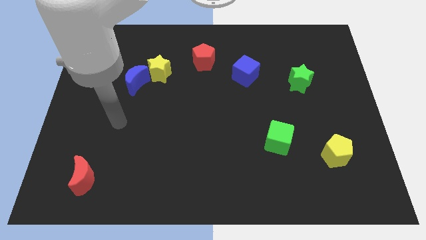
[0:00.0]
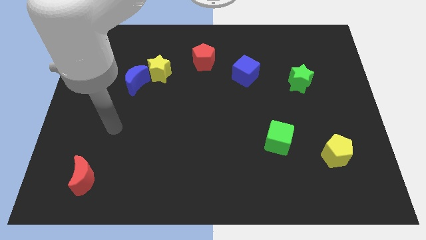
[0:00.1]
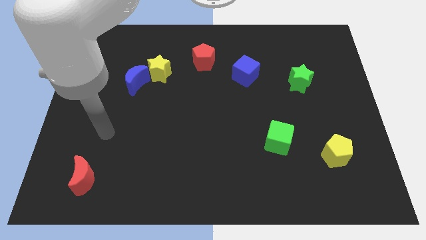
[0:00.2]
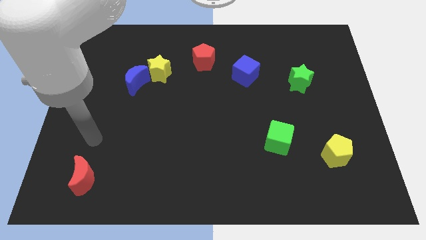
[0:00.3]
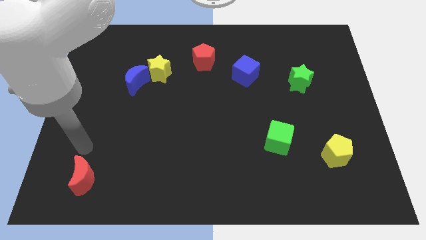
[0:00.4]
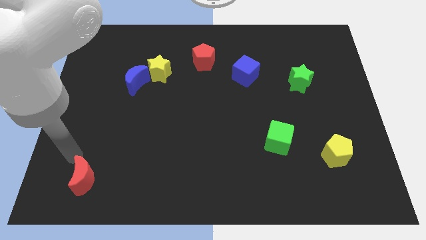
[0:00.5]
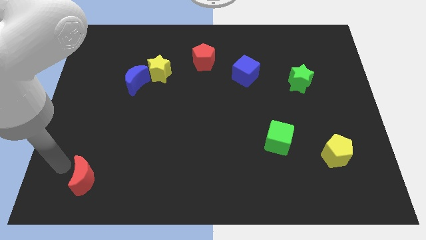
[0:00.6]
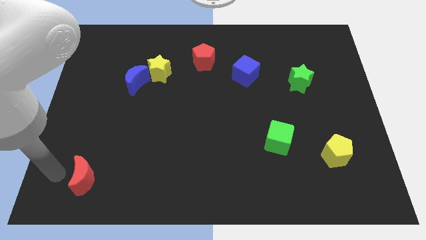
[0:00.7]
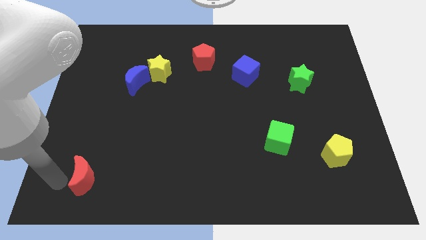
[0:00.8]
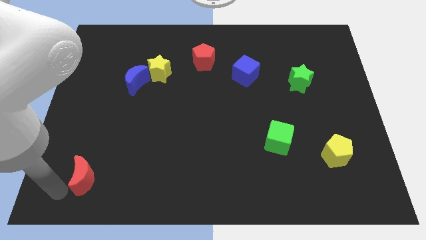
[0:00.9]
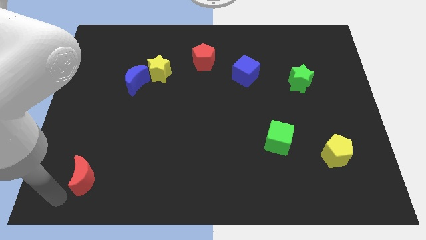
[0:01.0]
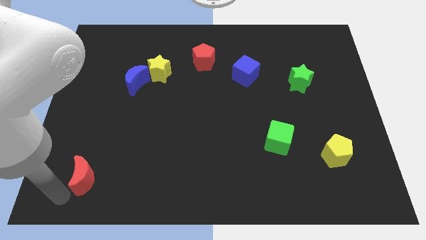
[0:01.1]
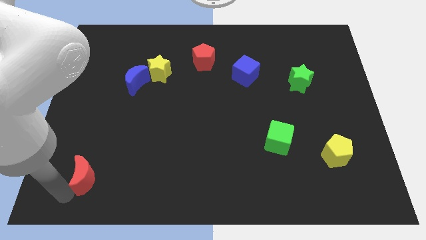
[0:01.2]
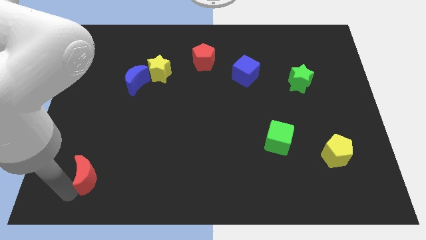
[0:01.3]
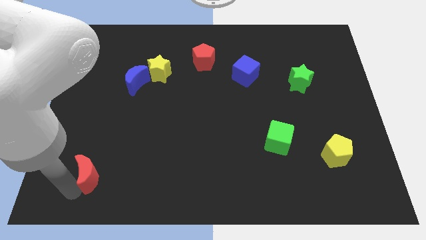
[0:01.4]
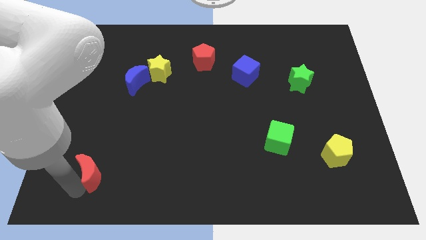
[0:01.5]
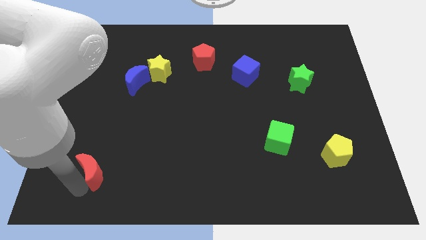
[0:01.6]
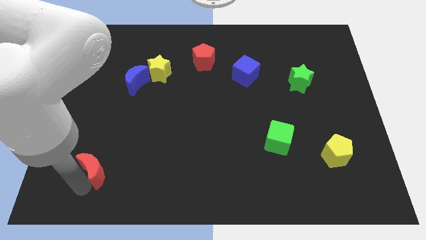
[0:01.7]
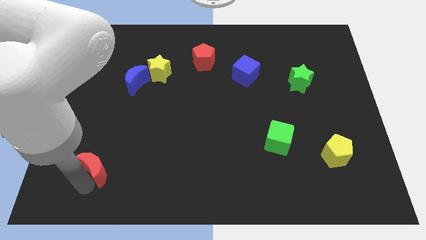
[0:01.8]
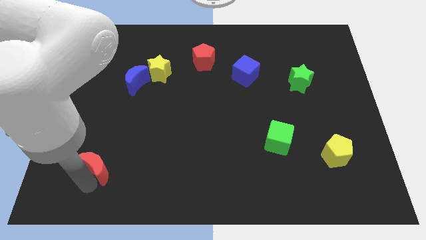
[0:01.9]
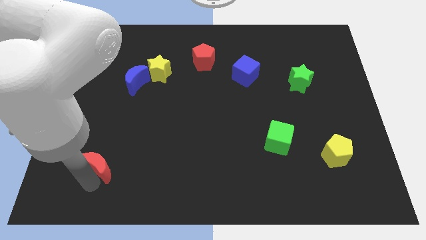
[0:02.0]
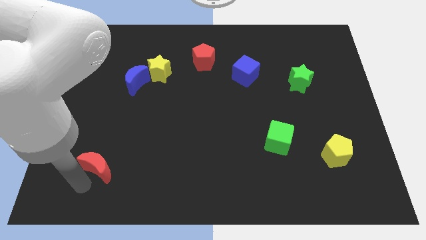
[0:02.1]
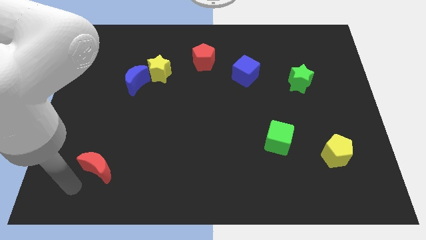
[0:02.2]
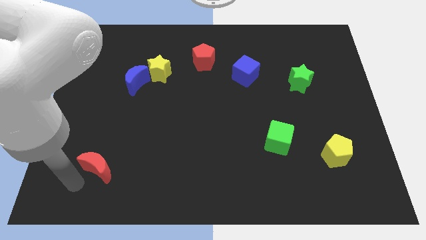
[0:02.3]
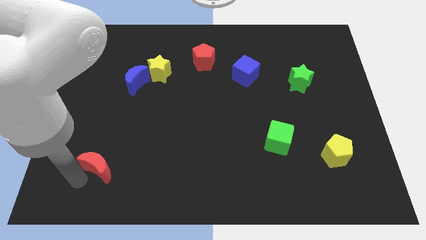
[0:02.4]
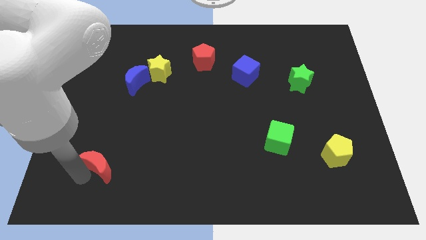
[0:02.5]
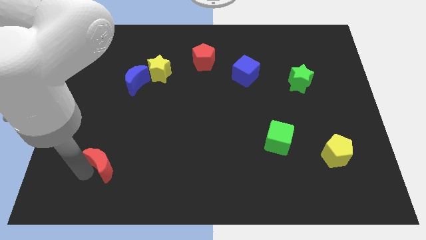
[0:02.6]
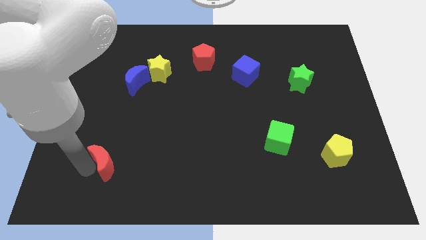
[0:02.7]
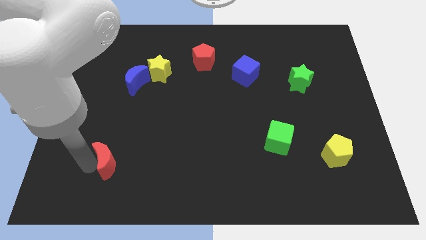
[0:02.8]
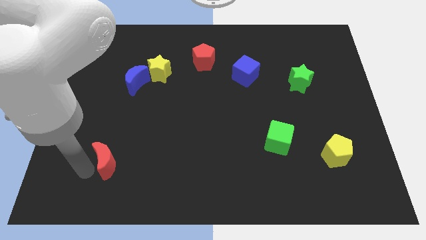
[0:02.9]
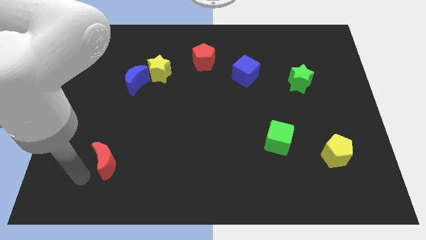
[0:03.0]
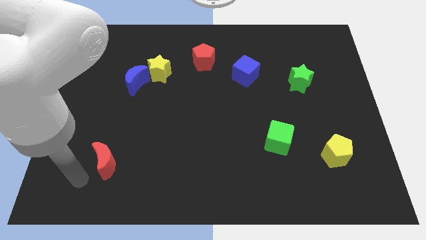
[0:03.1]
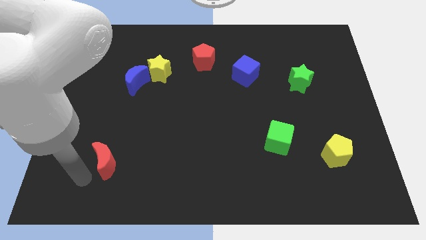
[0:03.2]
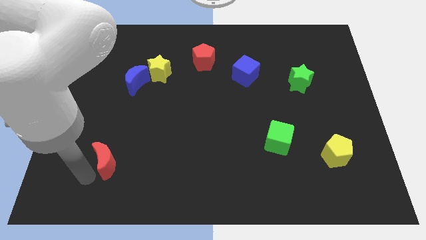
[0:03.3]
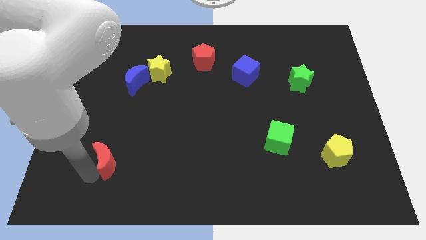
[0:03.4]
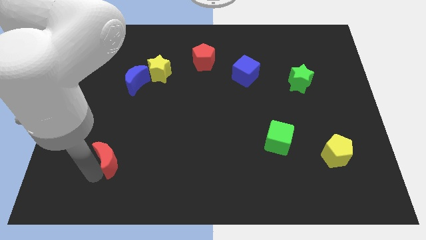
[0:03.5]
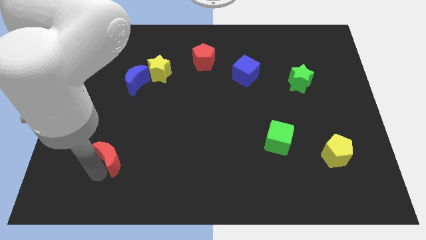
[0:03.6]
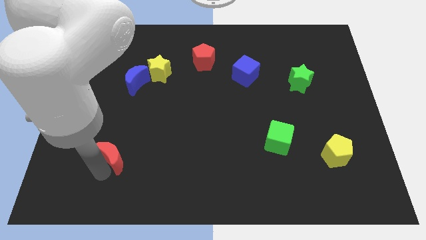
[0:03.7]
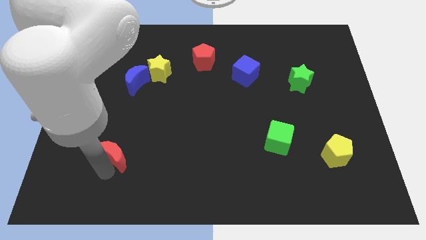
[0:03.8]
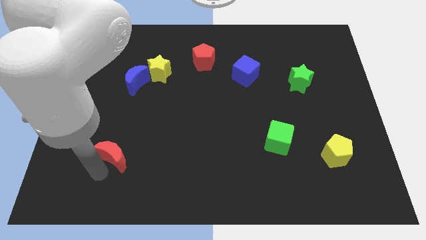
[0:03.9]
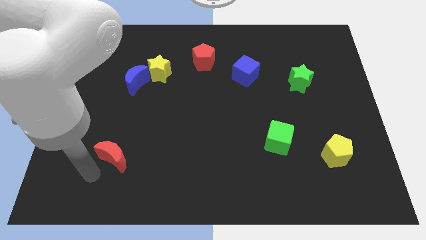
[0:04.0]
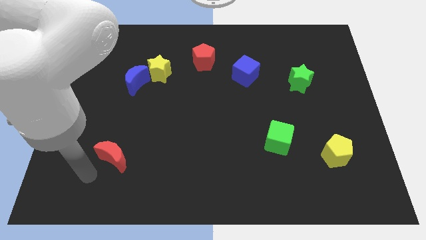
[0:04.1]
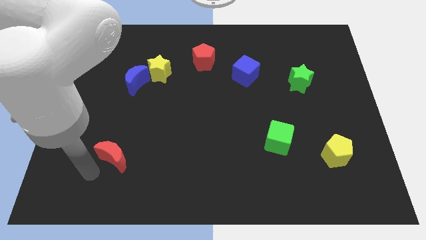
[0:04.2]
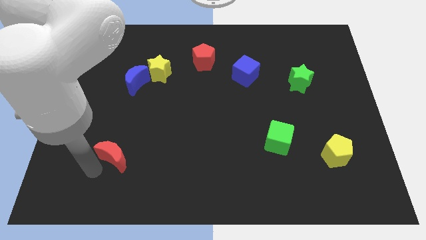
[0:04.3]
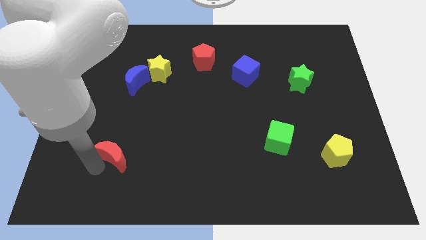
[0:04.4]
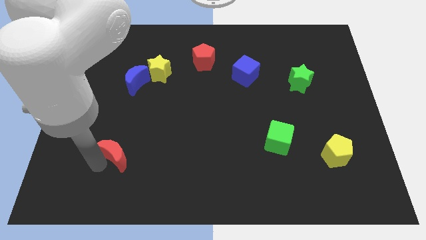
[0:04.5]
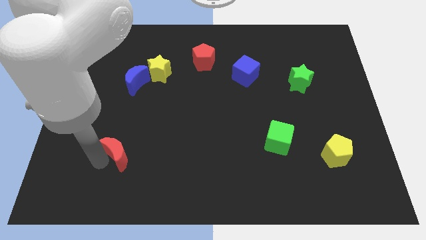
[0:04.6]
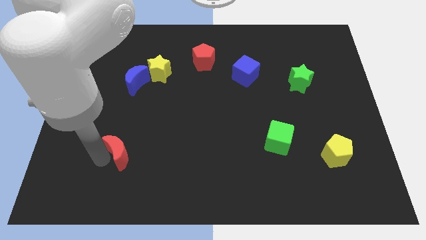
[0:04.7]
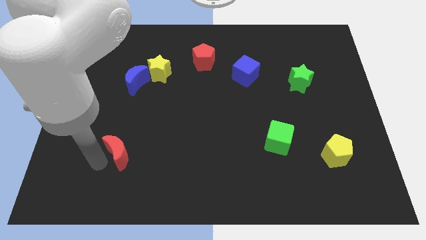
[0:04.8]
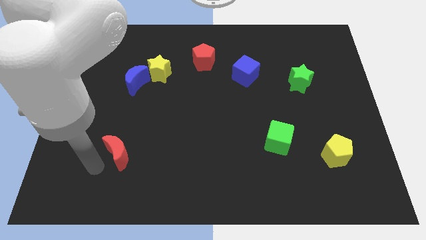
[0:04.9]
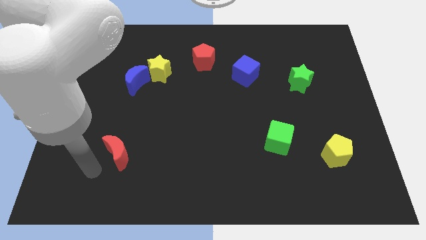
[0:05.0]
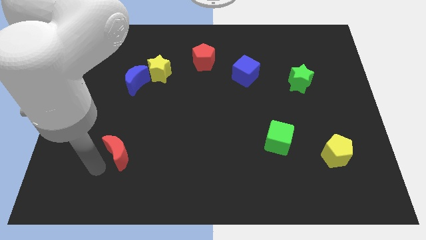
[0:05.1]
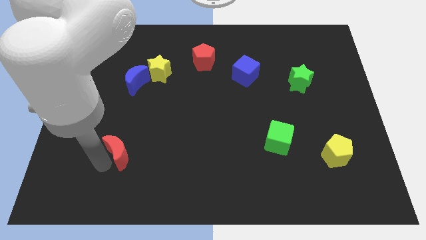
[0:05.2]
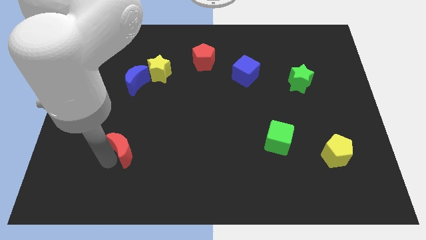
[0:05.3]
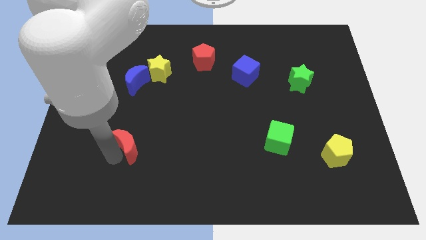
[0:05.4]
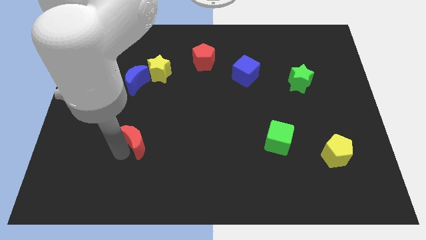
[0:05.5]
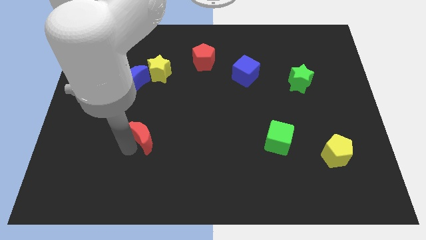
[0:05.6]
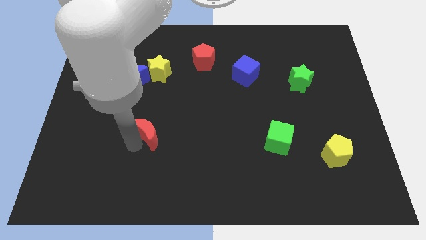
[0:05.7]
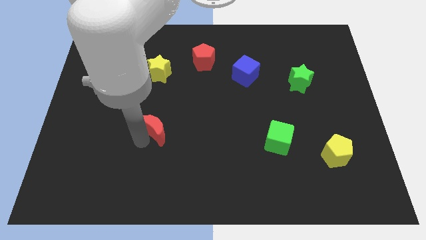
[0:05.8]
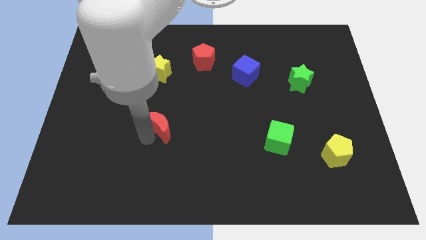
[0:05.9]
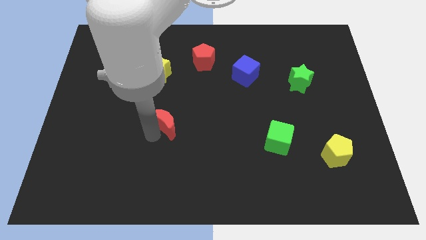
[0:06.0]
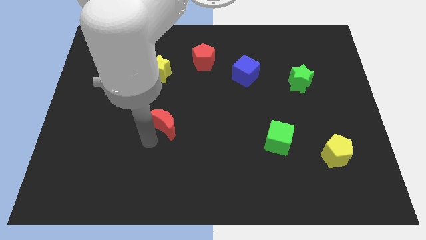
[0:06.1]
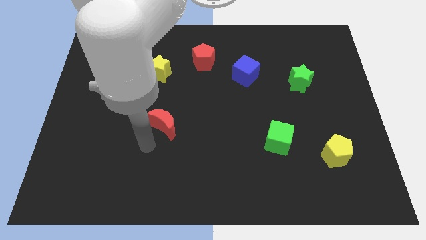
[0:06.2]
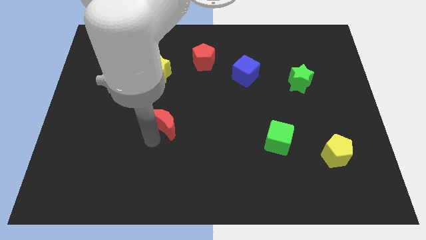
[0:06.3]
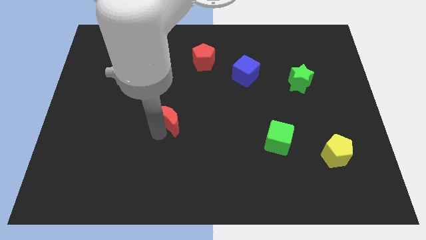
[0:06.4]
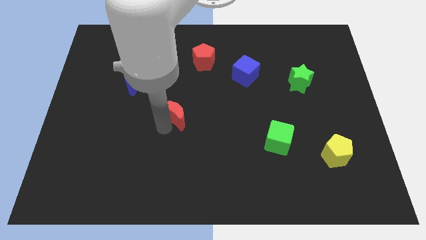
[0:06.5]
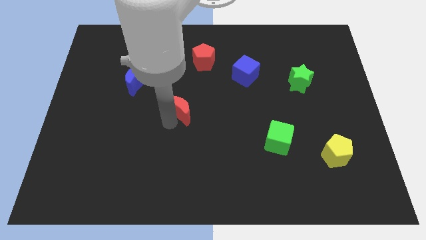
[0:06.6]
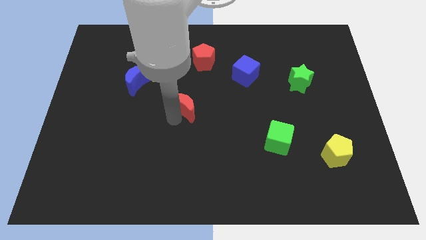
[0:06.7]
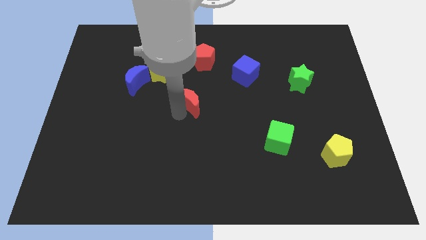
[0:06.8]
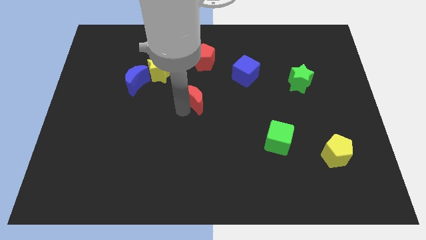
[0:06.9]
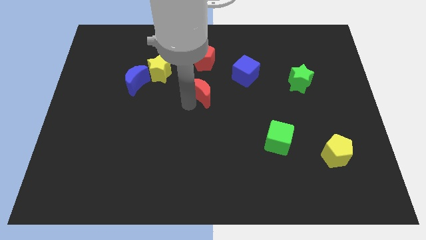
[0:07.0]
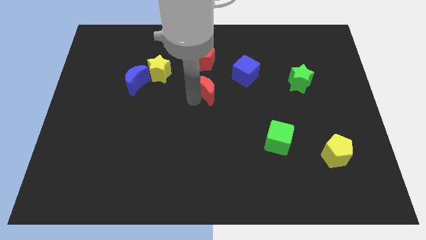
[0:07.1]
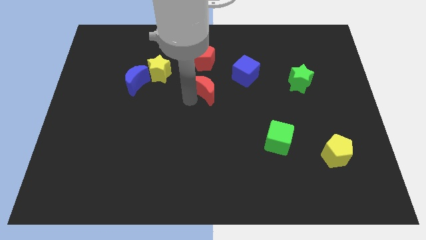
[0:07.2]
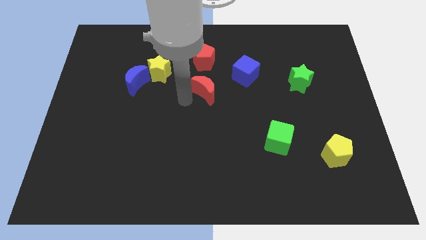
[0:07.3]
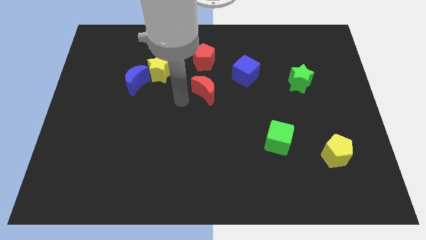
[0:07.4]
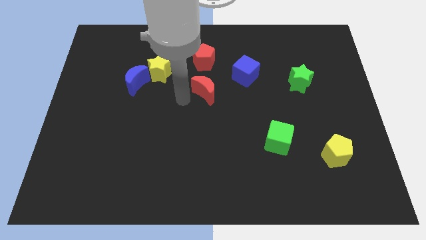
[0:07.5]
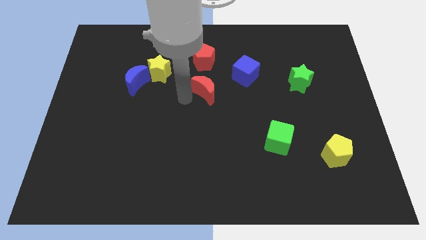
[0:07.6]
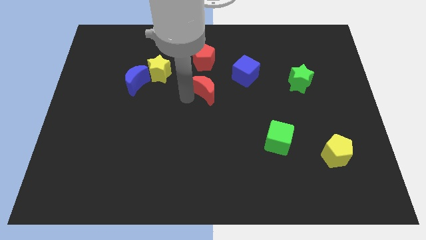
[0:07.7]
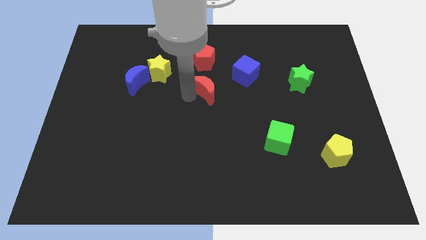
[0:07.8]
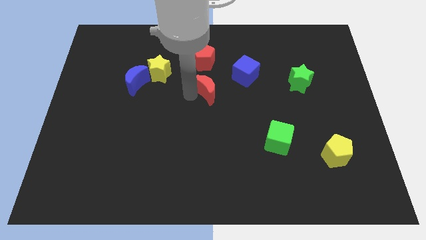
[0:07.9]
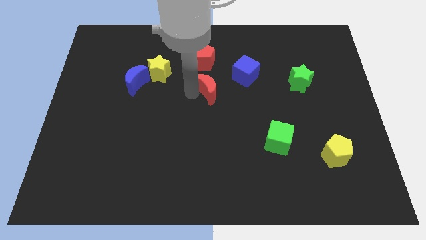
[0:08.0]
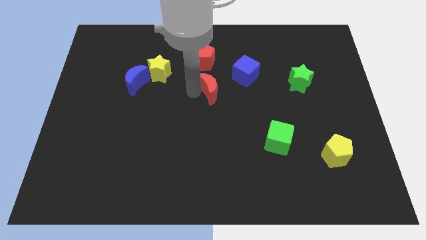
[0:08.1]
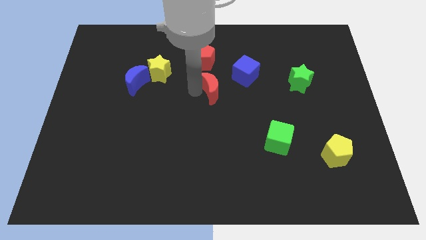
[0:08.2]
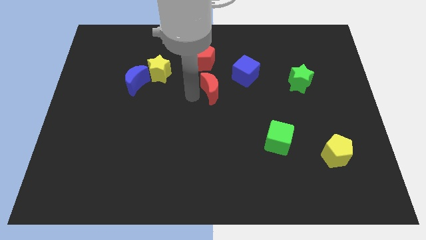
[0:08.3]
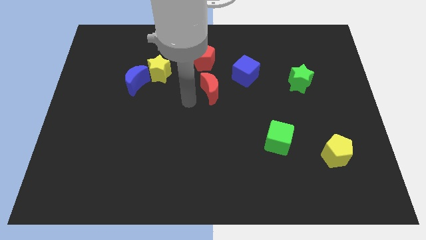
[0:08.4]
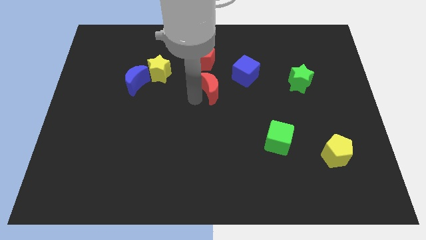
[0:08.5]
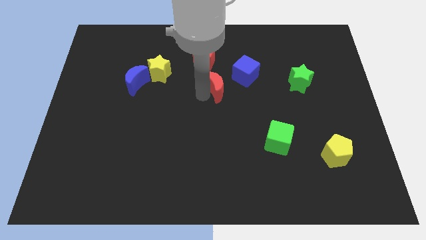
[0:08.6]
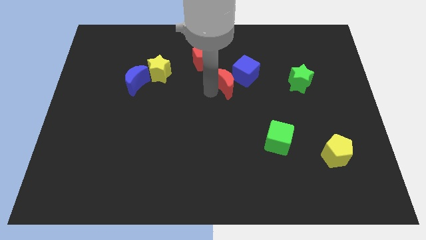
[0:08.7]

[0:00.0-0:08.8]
move the red moon next to the blue cube
